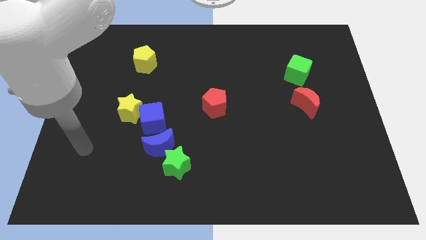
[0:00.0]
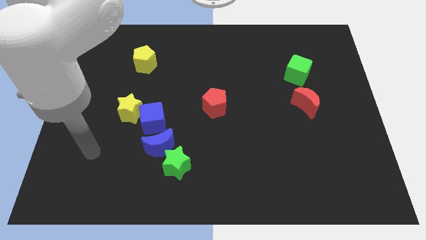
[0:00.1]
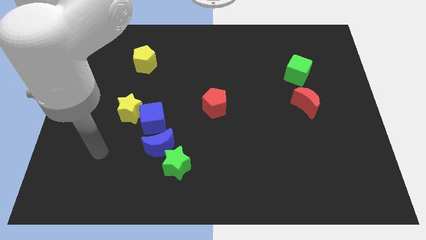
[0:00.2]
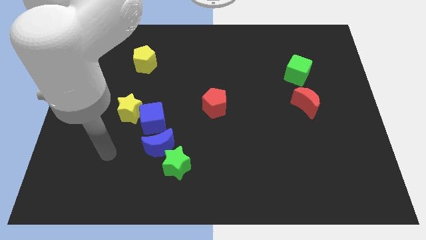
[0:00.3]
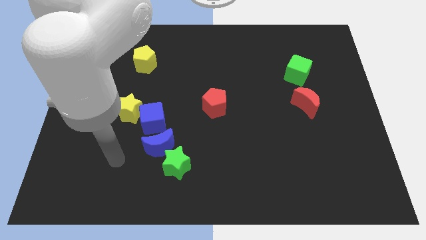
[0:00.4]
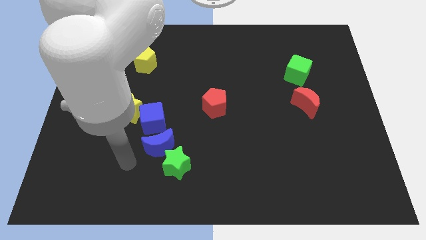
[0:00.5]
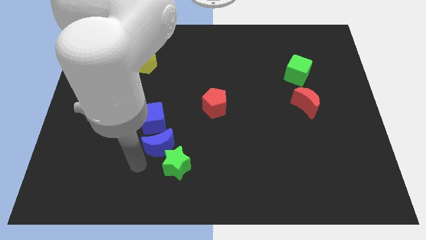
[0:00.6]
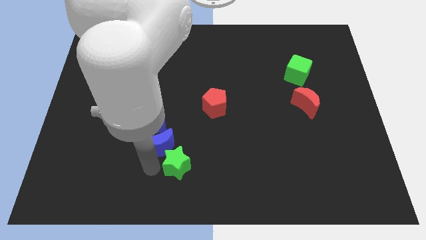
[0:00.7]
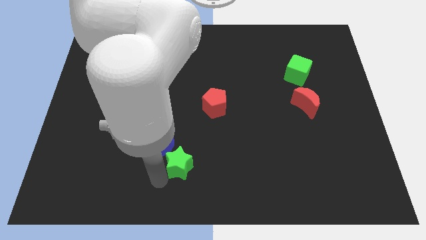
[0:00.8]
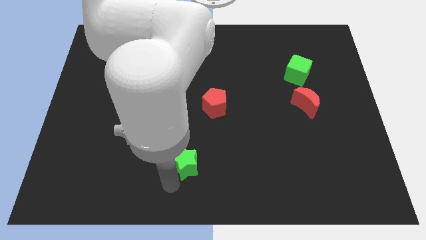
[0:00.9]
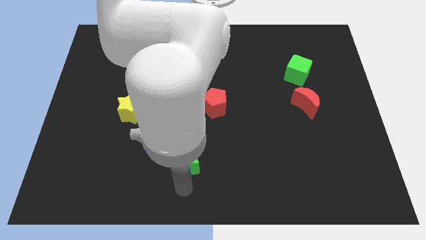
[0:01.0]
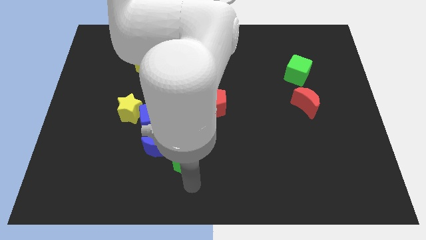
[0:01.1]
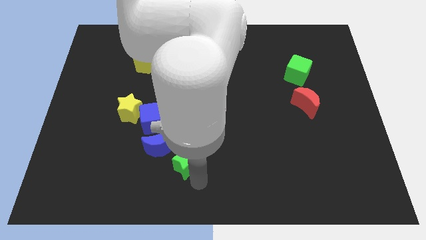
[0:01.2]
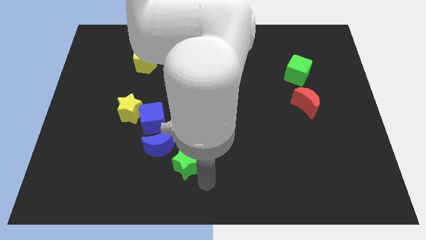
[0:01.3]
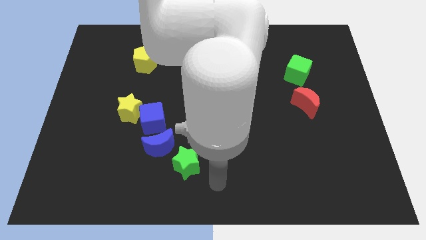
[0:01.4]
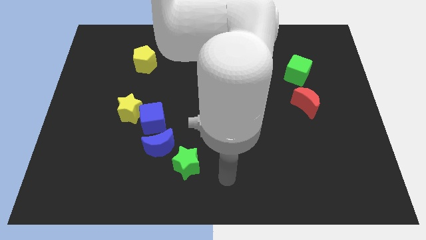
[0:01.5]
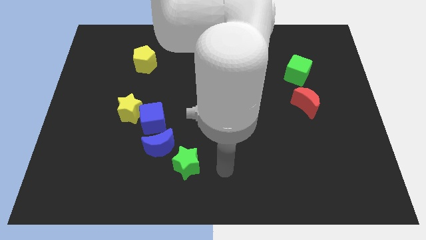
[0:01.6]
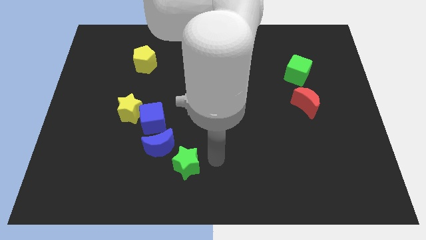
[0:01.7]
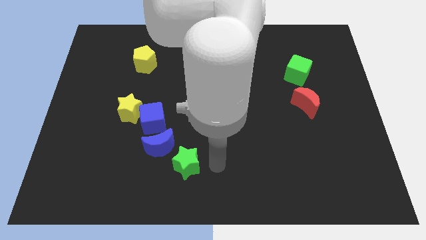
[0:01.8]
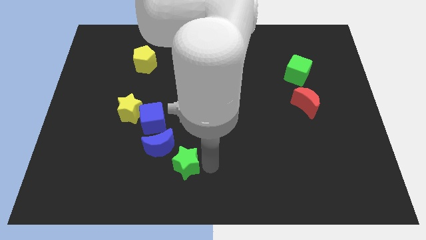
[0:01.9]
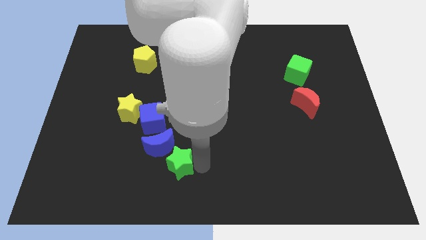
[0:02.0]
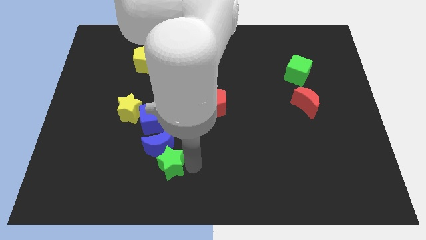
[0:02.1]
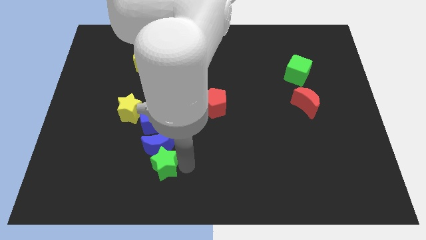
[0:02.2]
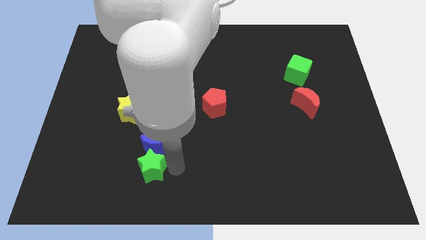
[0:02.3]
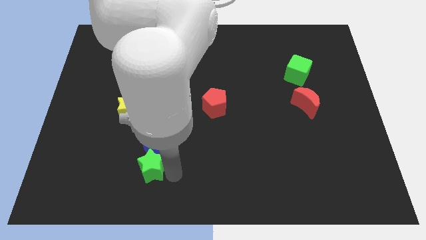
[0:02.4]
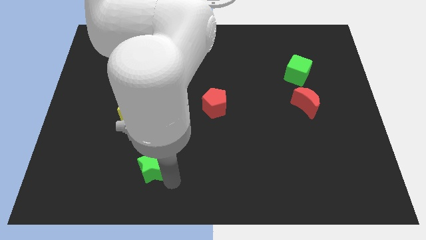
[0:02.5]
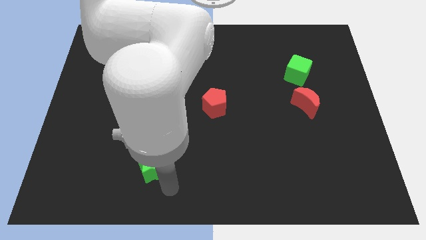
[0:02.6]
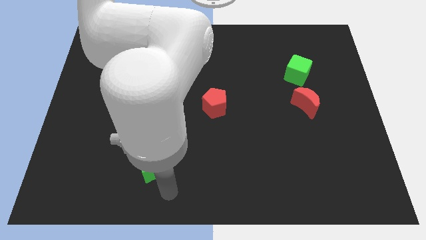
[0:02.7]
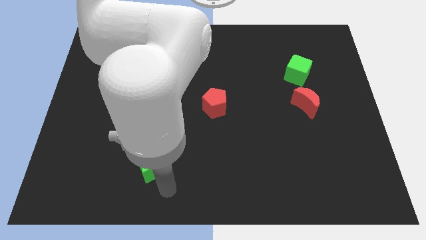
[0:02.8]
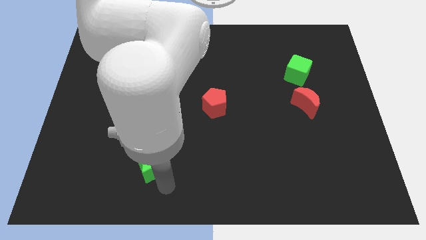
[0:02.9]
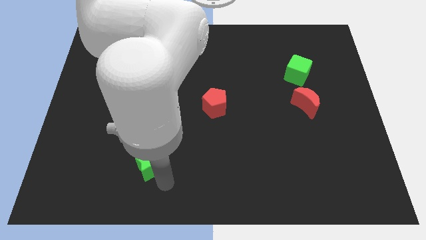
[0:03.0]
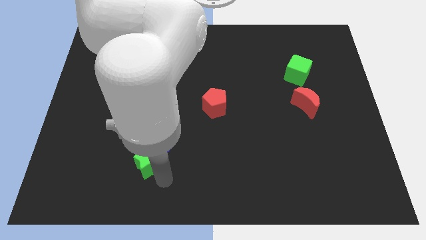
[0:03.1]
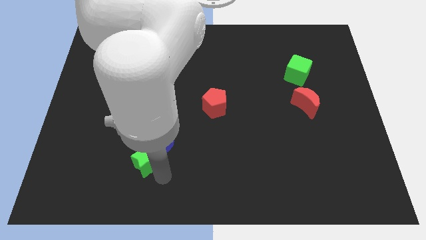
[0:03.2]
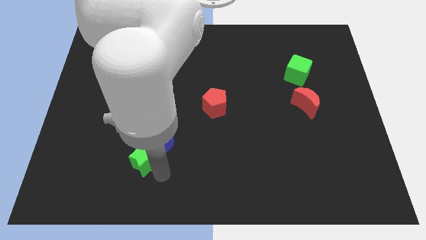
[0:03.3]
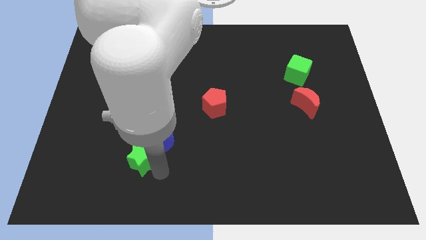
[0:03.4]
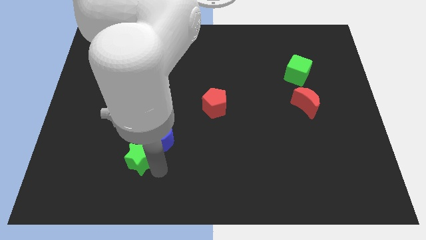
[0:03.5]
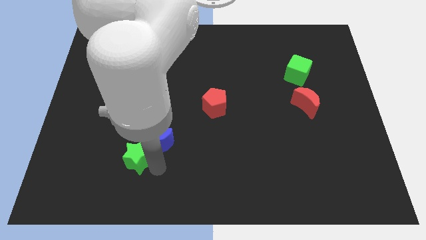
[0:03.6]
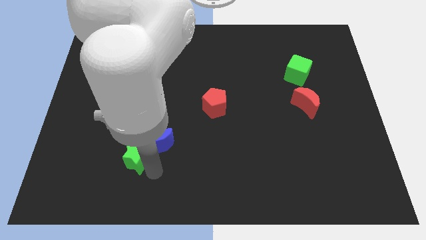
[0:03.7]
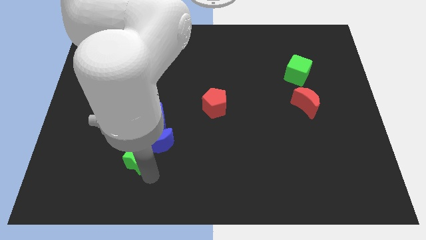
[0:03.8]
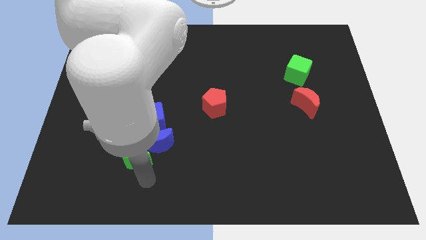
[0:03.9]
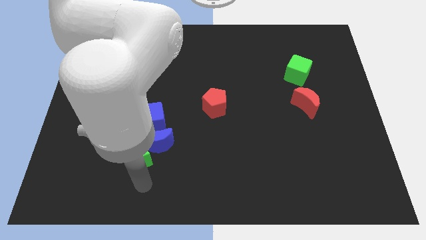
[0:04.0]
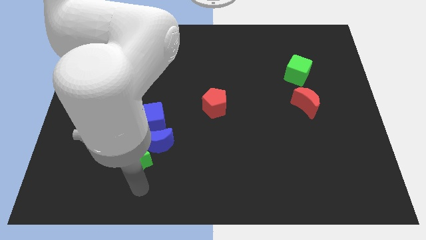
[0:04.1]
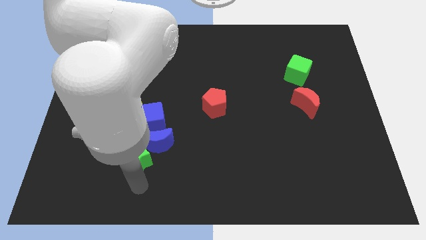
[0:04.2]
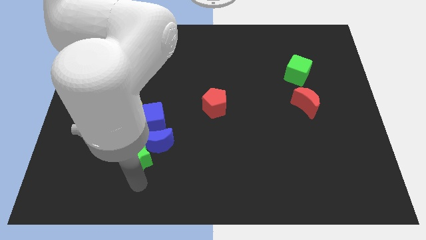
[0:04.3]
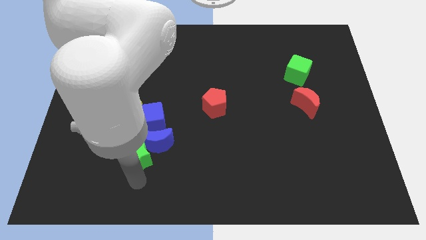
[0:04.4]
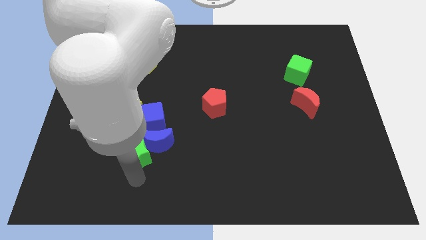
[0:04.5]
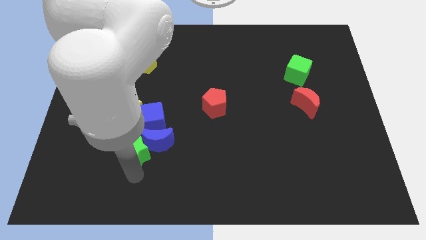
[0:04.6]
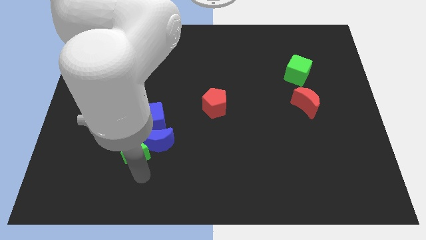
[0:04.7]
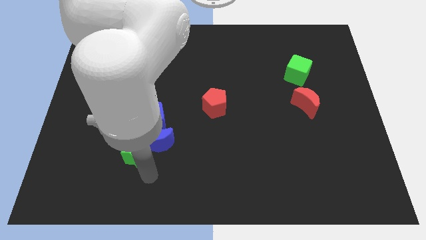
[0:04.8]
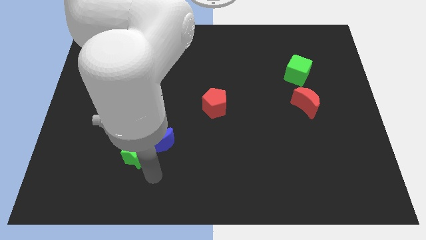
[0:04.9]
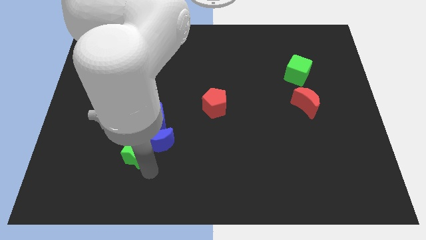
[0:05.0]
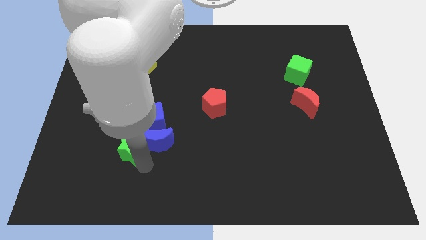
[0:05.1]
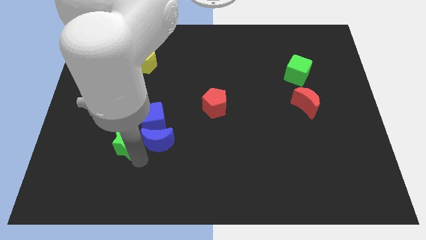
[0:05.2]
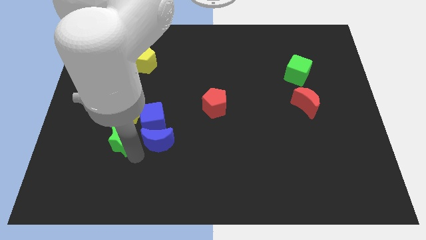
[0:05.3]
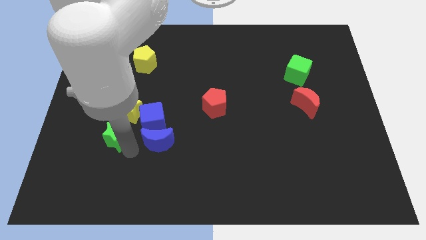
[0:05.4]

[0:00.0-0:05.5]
put the green star to the left side of the blue cube

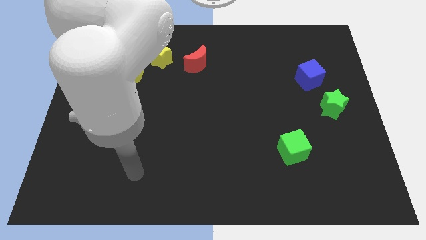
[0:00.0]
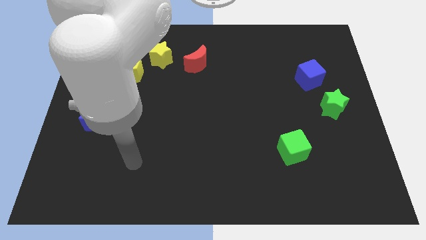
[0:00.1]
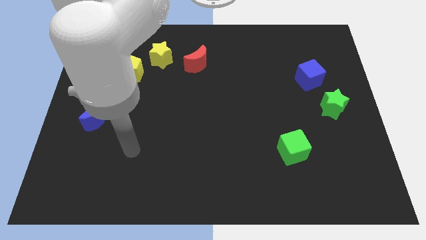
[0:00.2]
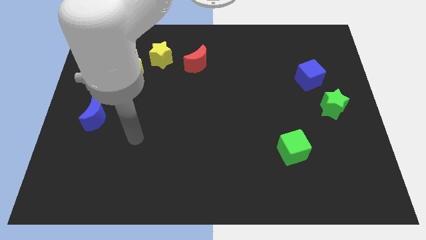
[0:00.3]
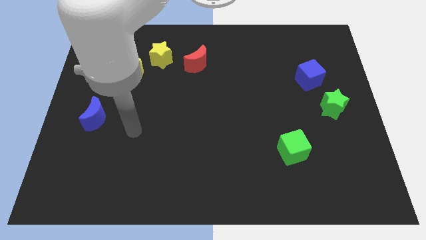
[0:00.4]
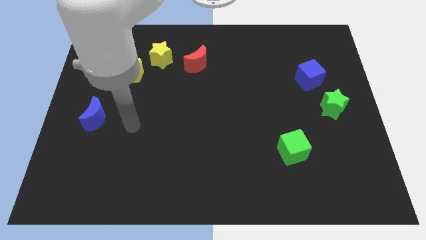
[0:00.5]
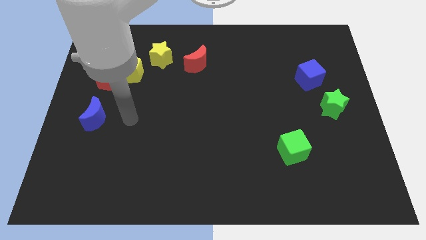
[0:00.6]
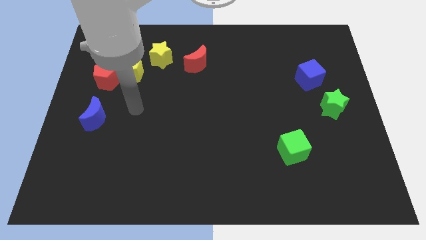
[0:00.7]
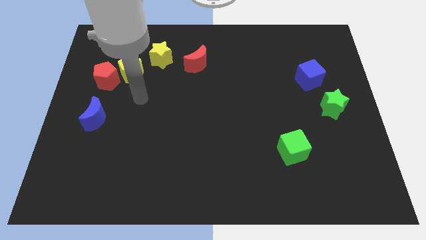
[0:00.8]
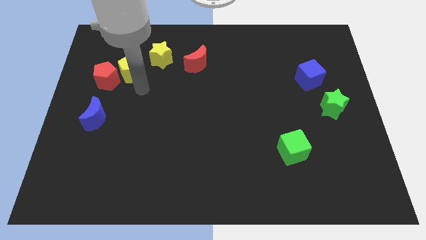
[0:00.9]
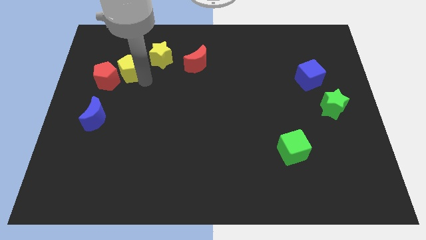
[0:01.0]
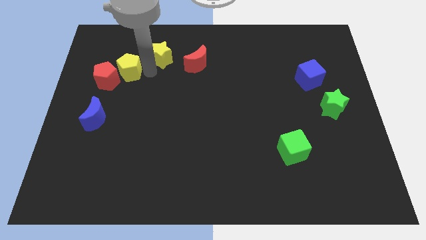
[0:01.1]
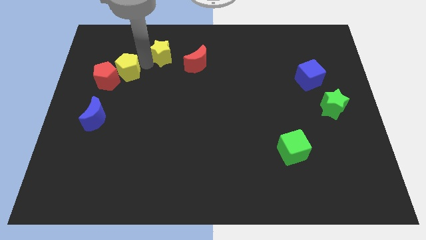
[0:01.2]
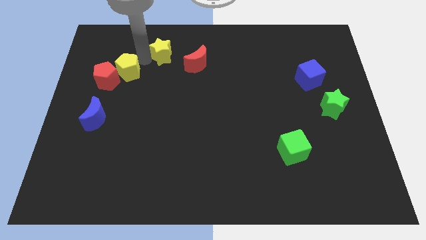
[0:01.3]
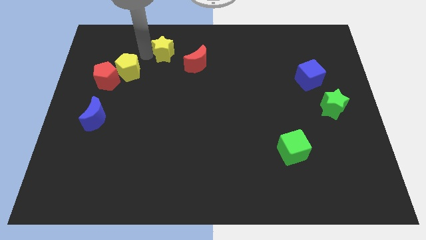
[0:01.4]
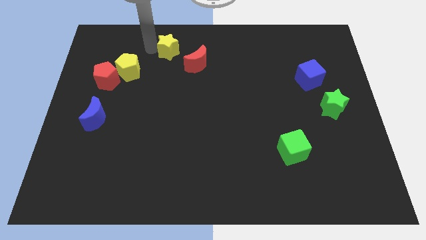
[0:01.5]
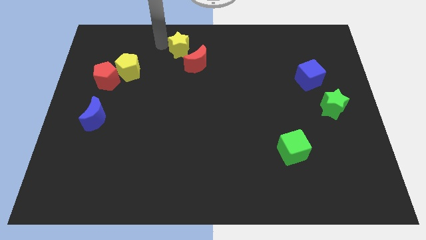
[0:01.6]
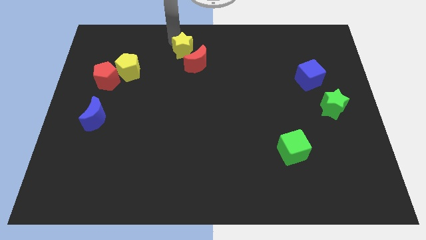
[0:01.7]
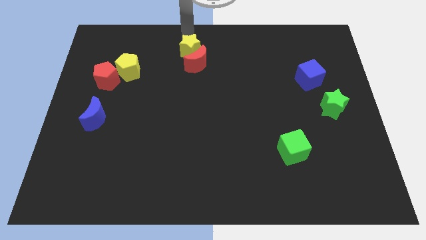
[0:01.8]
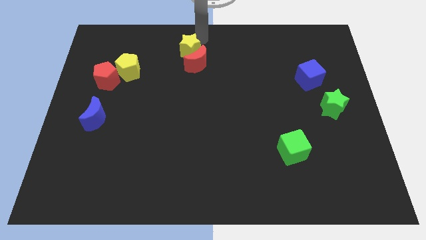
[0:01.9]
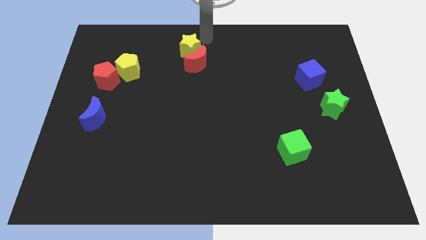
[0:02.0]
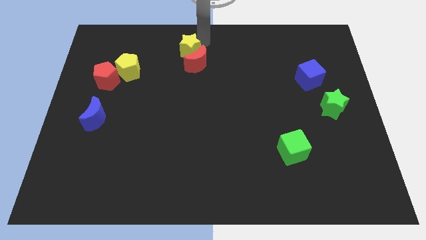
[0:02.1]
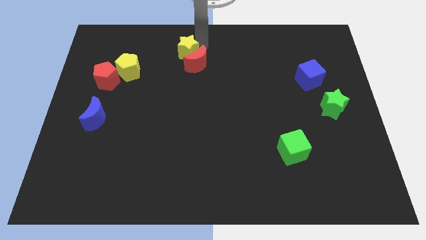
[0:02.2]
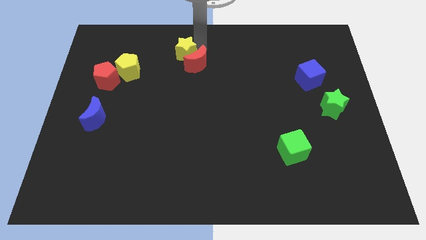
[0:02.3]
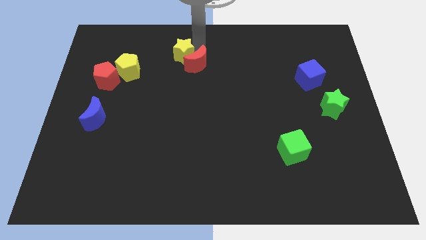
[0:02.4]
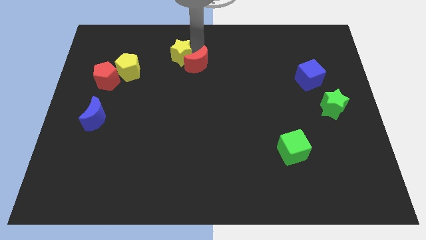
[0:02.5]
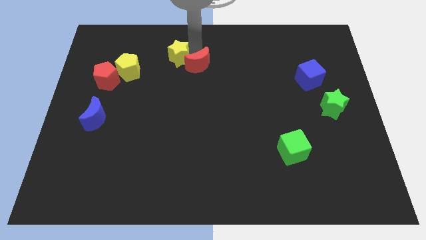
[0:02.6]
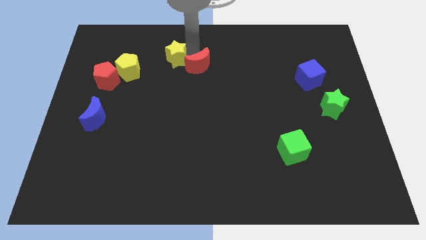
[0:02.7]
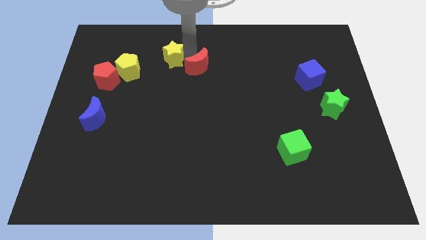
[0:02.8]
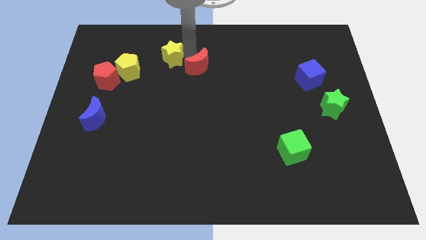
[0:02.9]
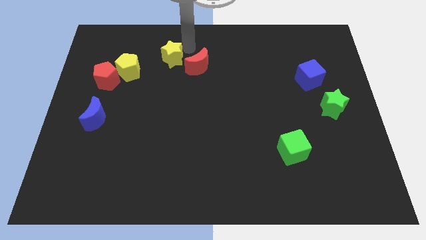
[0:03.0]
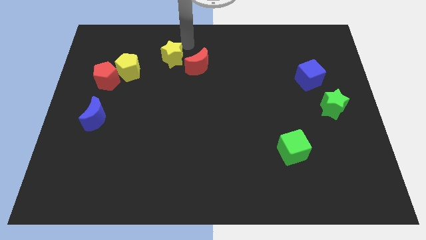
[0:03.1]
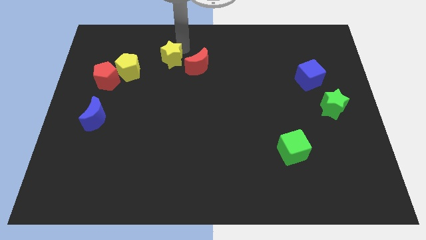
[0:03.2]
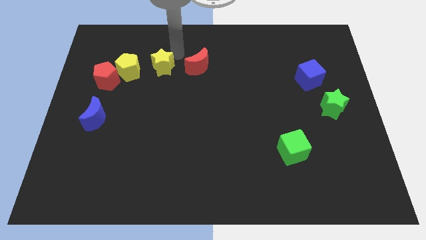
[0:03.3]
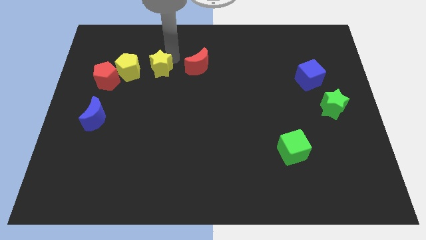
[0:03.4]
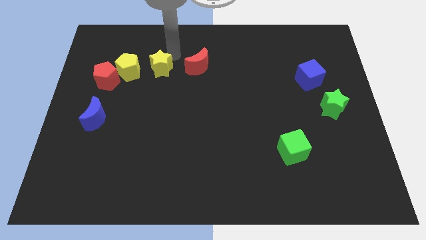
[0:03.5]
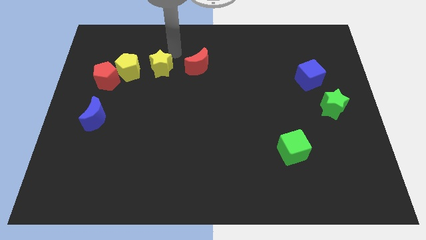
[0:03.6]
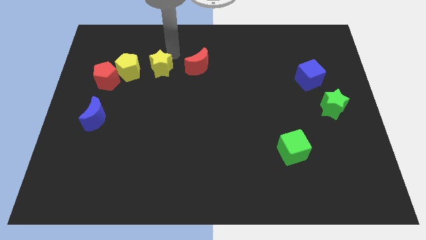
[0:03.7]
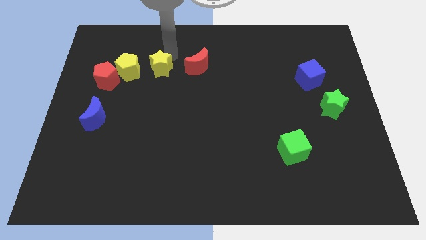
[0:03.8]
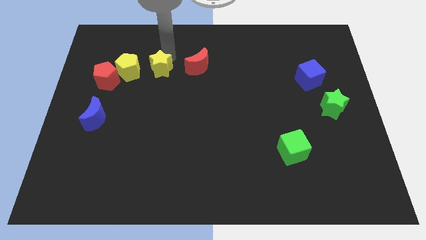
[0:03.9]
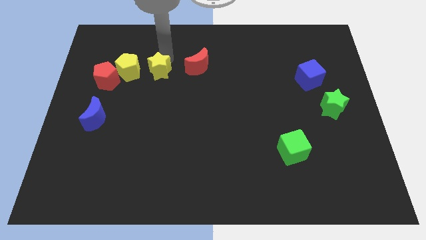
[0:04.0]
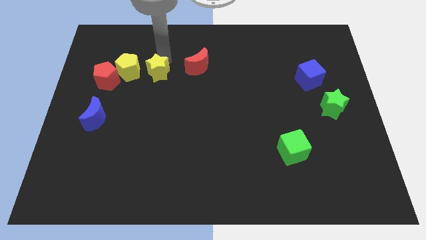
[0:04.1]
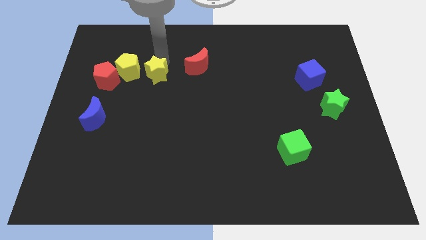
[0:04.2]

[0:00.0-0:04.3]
push the yellow star to the bottom right side of the yellow pentagon
